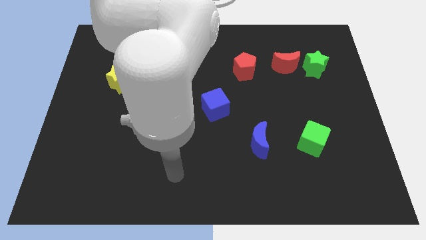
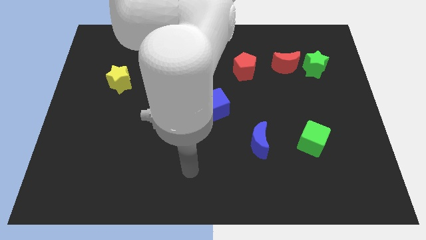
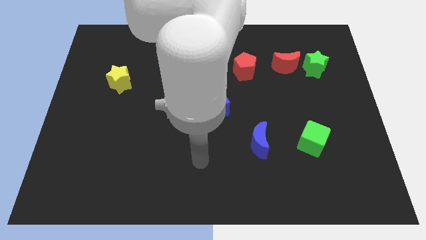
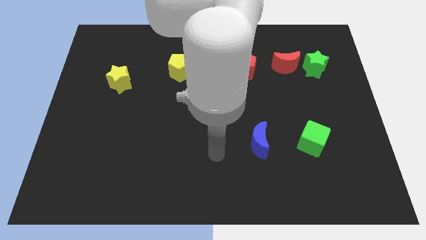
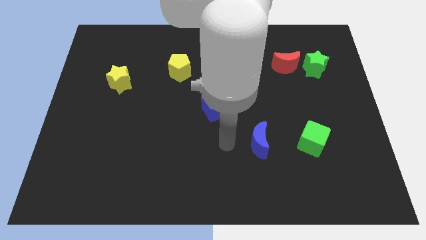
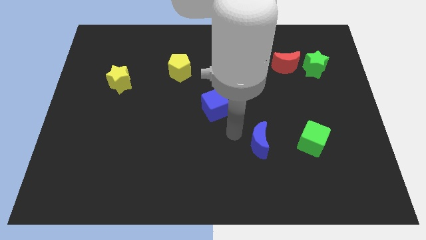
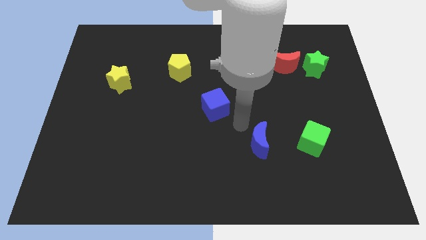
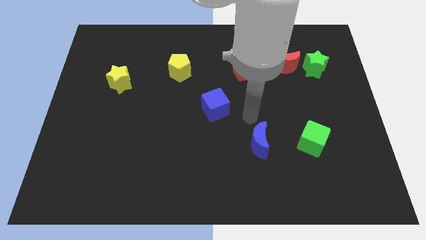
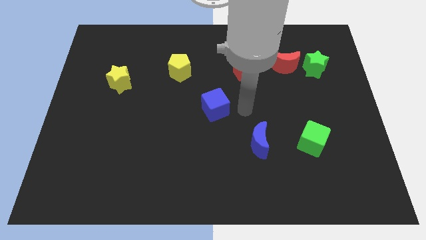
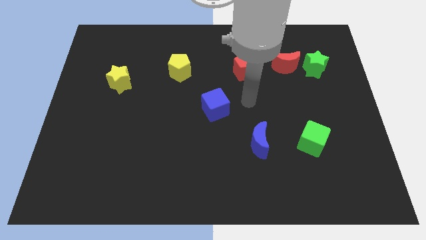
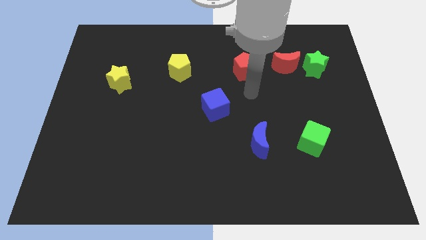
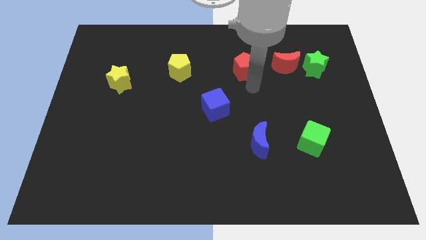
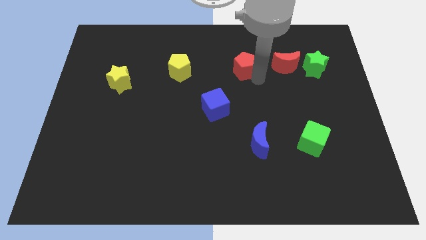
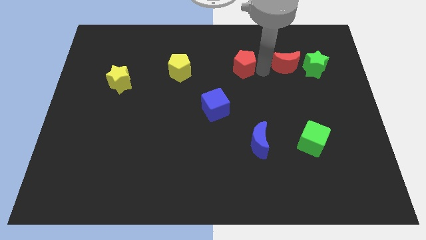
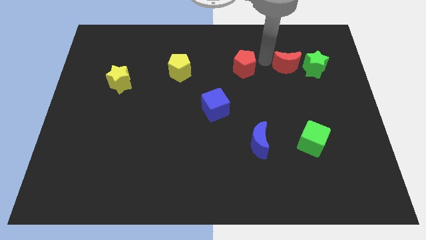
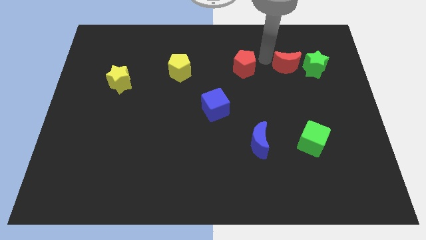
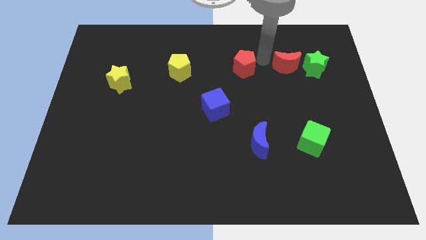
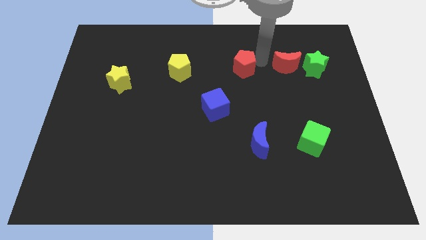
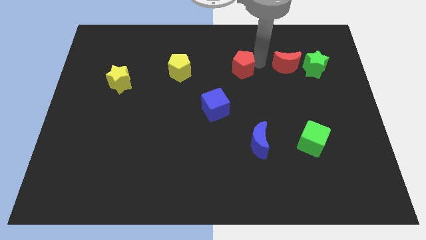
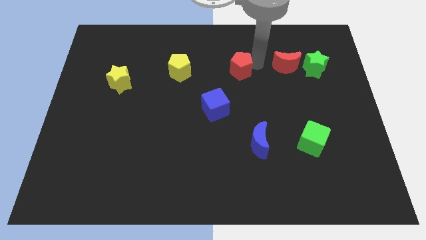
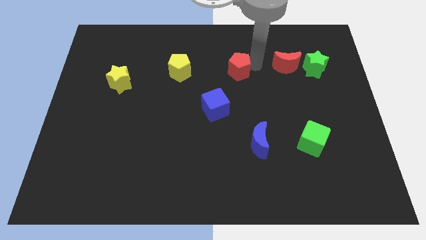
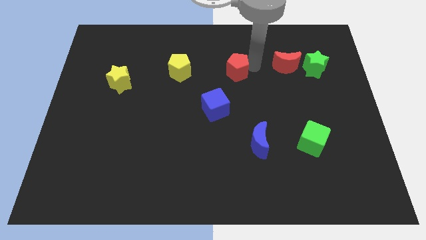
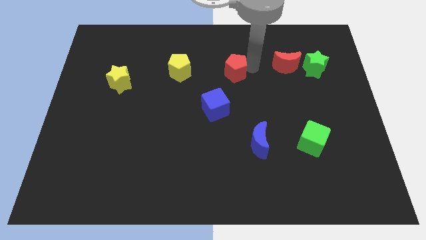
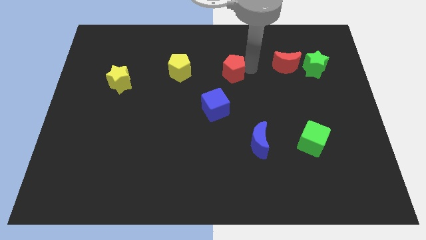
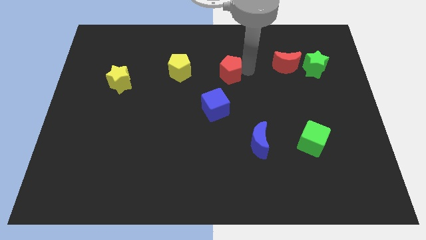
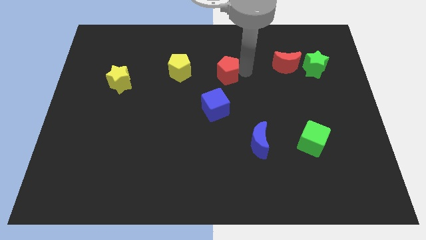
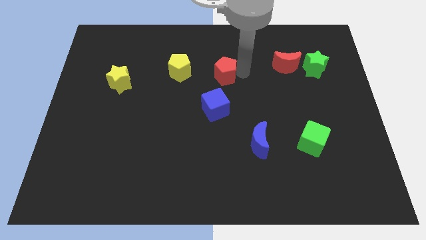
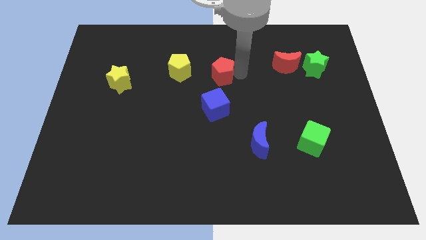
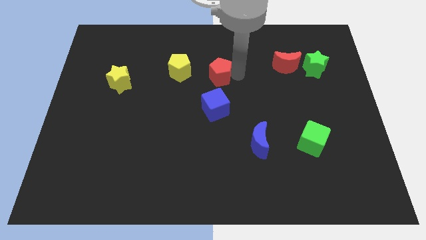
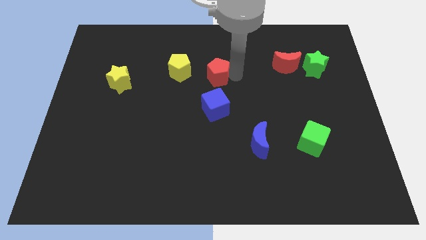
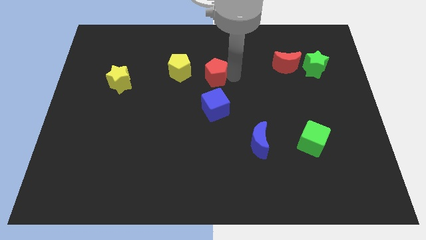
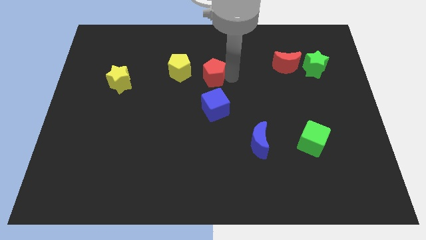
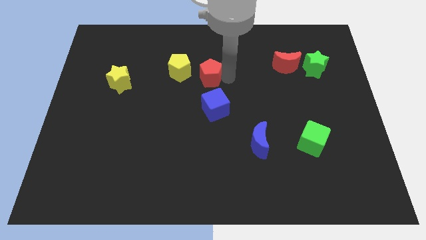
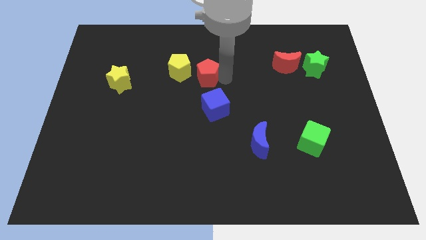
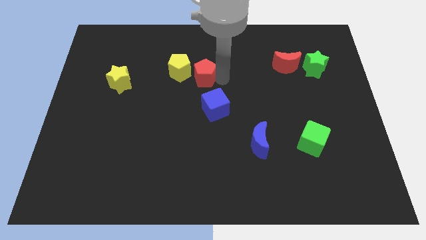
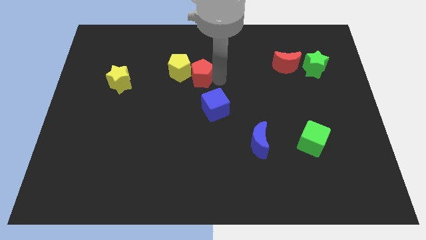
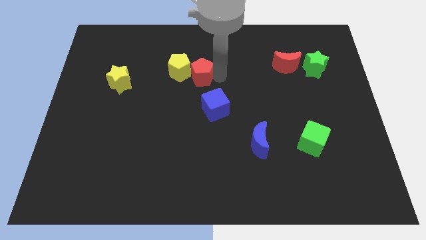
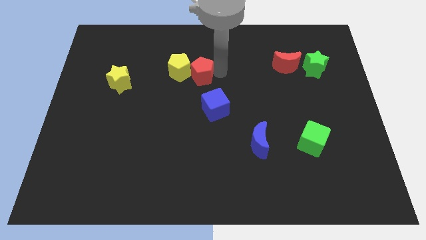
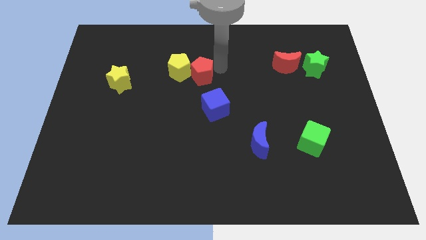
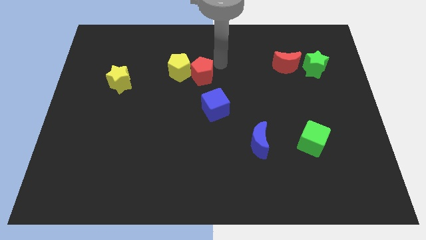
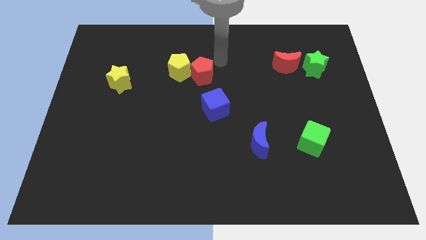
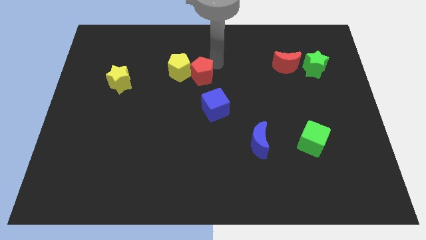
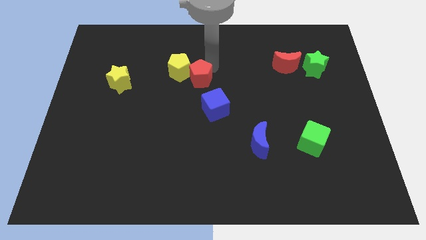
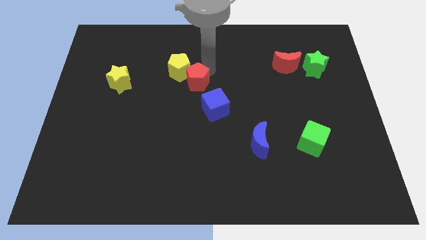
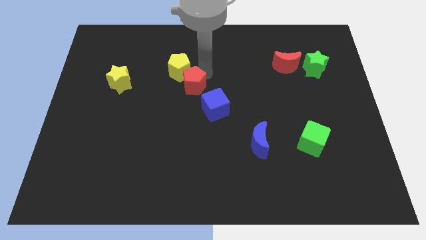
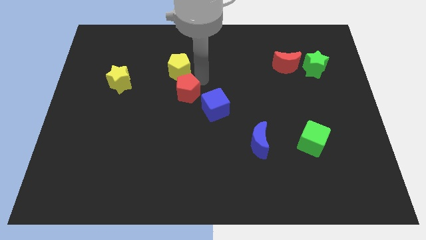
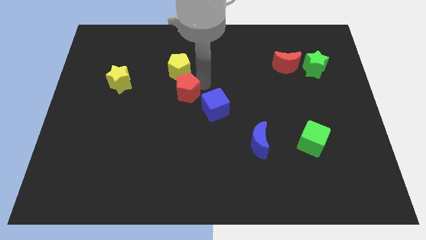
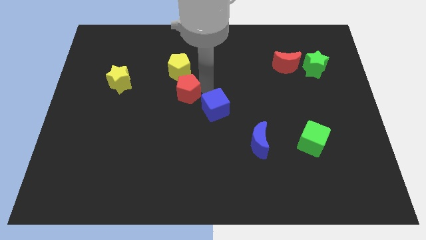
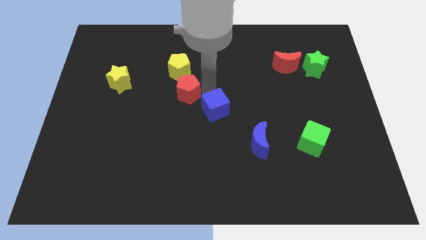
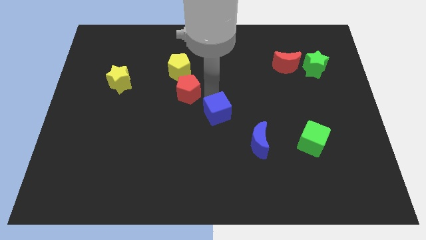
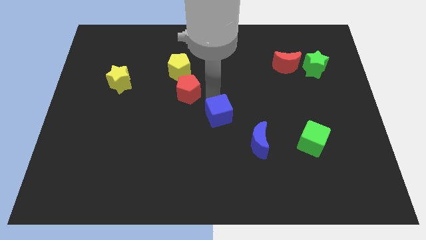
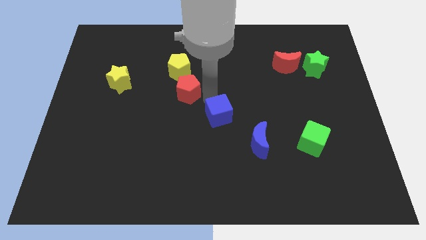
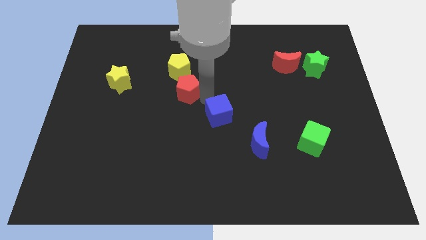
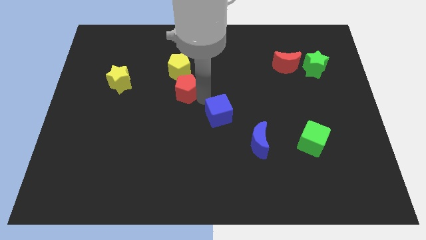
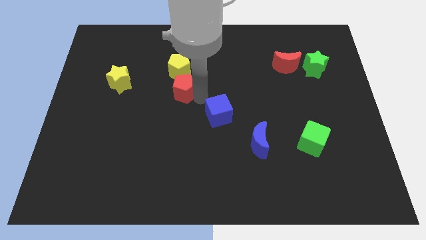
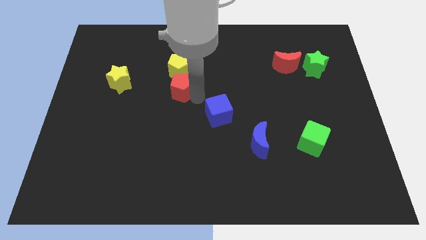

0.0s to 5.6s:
put the red pentagon right of the yellow star

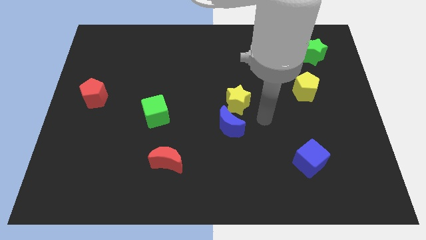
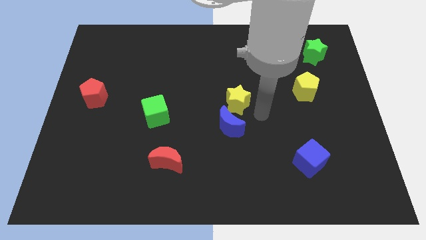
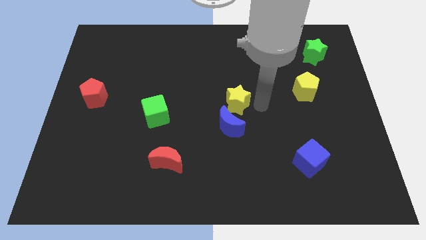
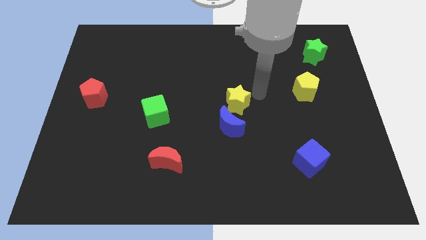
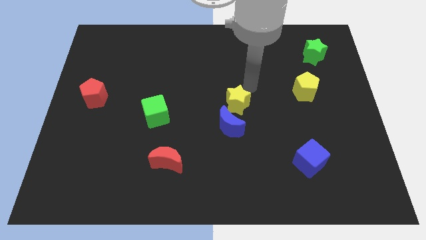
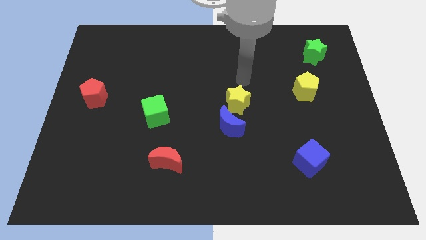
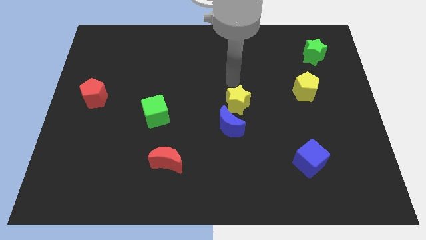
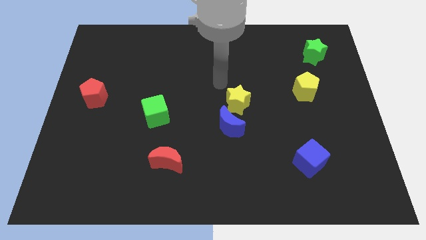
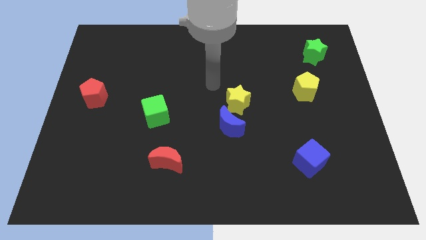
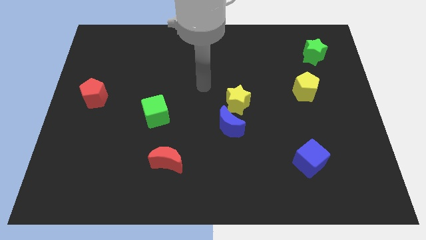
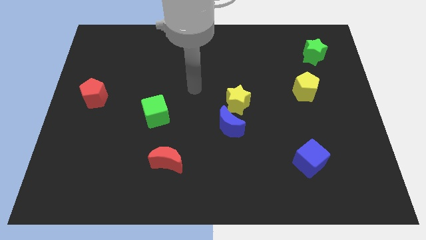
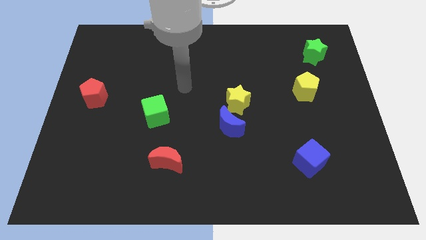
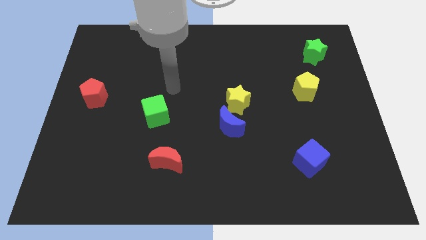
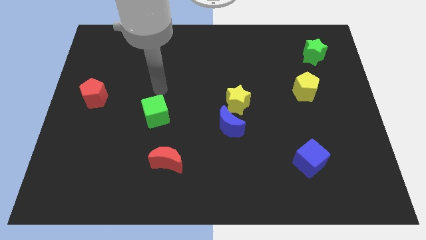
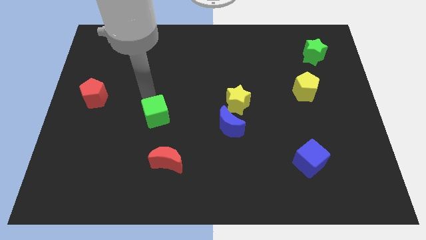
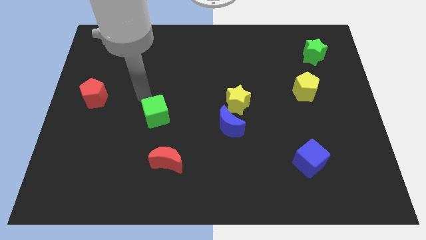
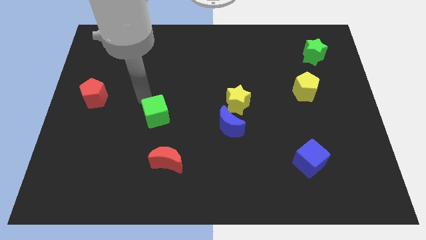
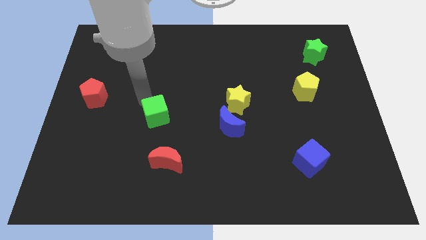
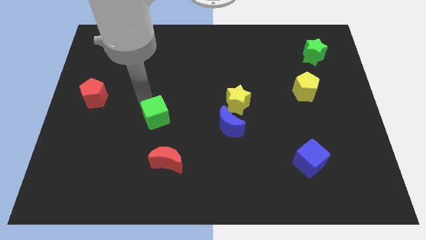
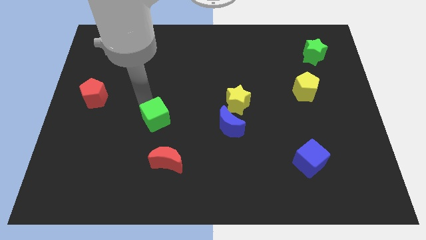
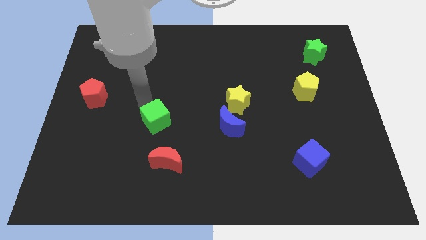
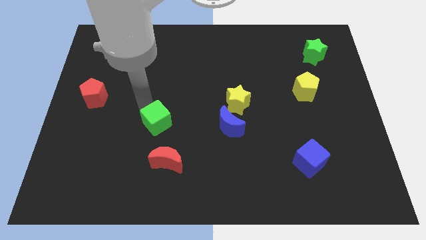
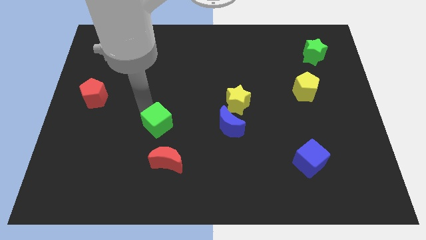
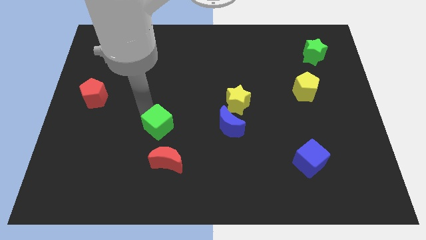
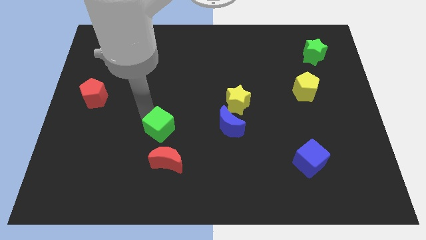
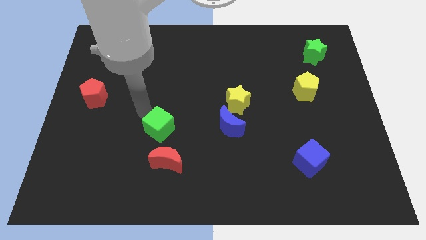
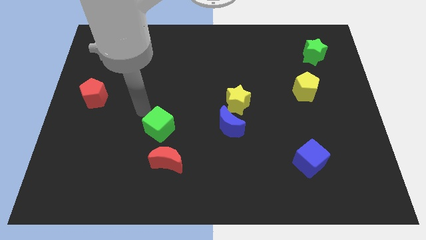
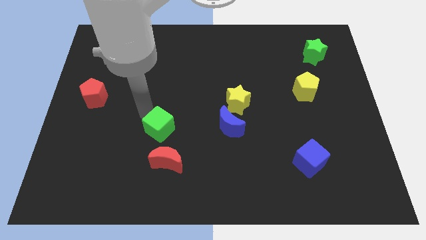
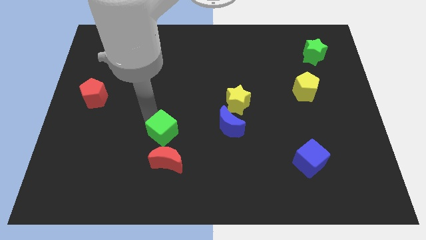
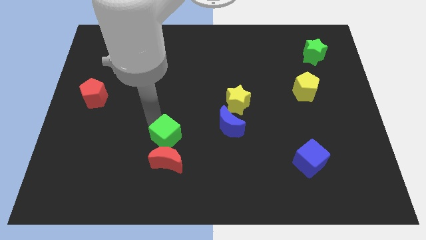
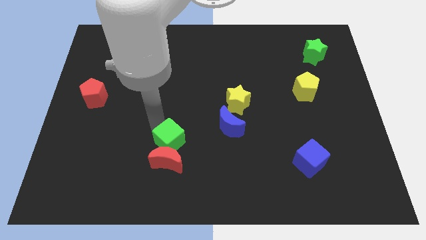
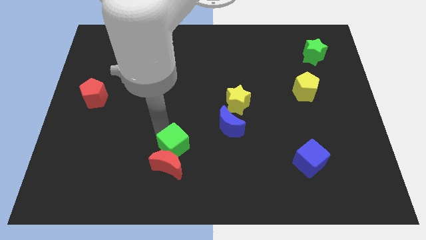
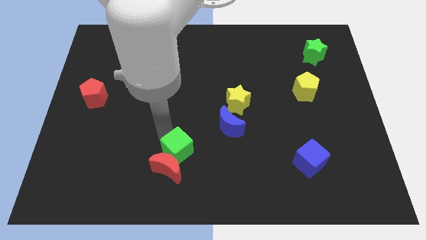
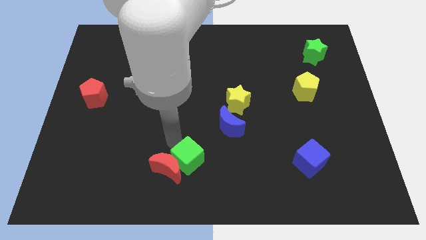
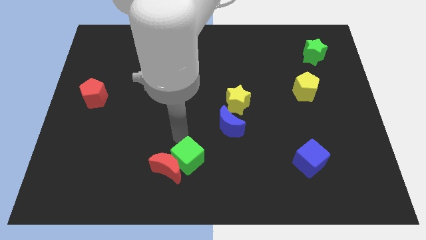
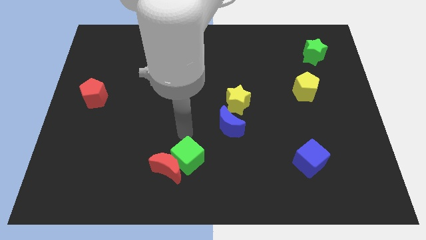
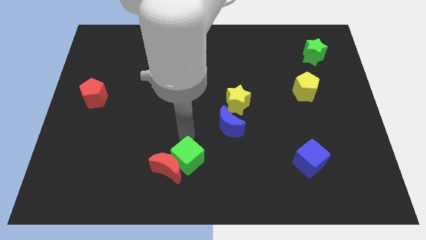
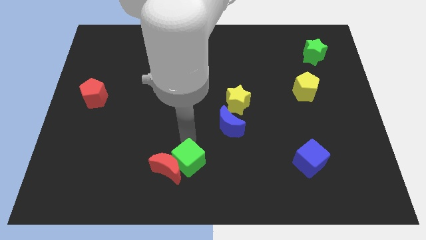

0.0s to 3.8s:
slide the green cube to the bottom right side of the red moon
